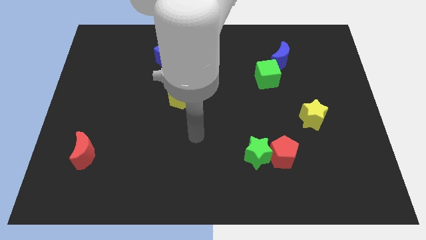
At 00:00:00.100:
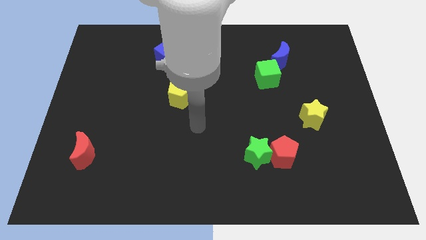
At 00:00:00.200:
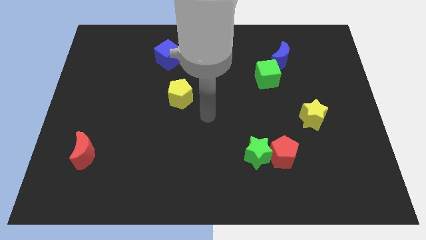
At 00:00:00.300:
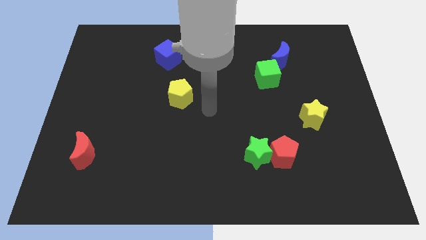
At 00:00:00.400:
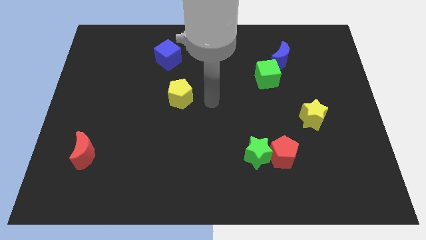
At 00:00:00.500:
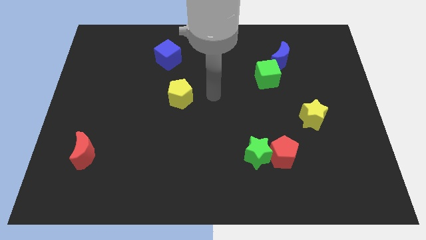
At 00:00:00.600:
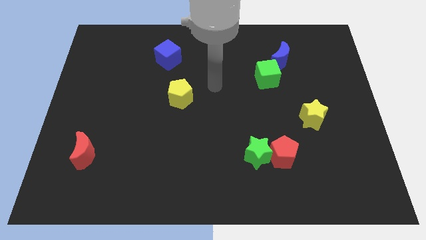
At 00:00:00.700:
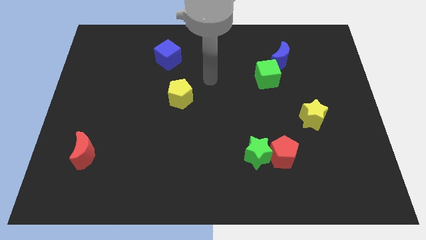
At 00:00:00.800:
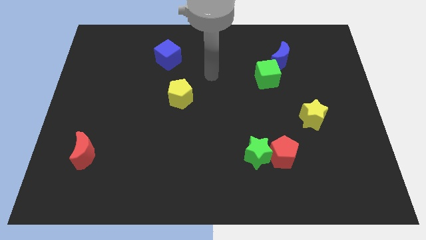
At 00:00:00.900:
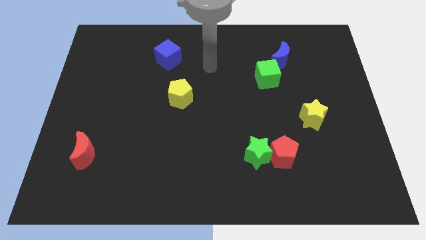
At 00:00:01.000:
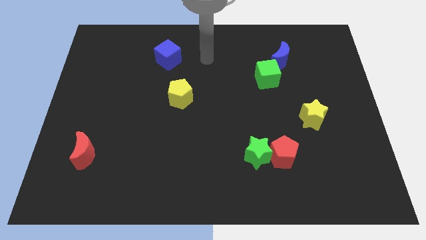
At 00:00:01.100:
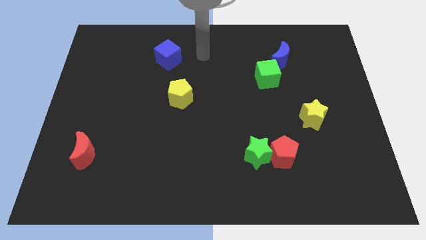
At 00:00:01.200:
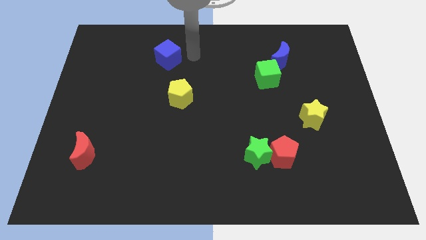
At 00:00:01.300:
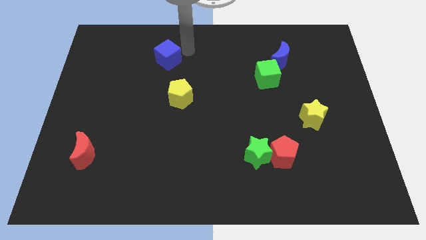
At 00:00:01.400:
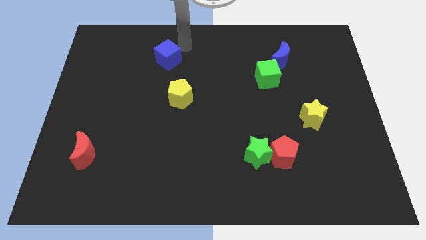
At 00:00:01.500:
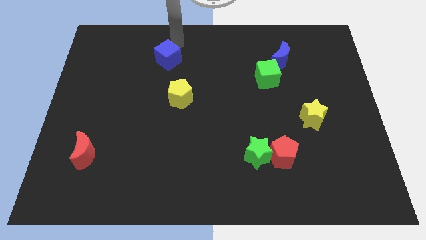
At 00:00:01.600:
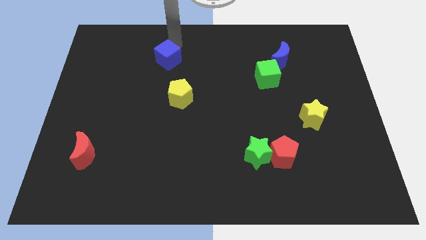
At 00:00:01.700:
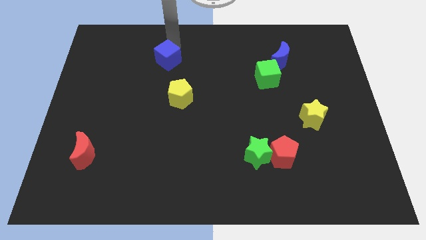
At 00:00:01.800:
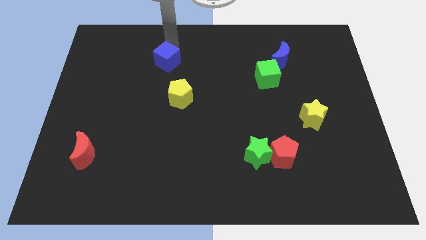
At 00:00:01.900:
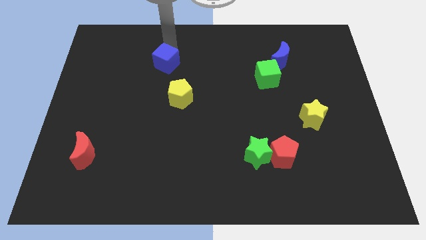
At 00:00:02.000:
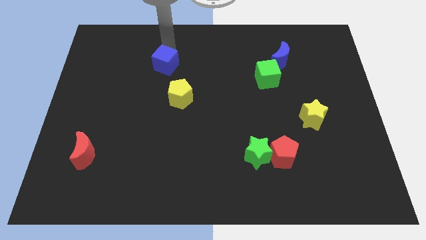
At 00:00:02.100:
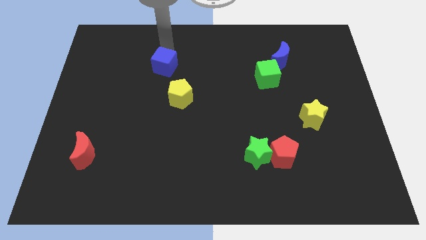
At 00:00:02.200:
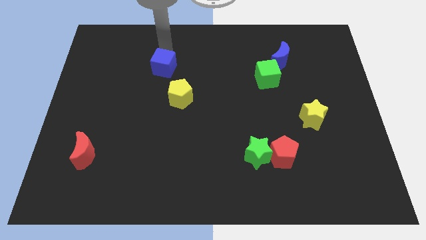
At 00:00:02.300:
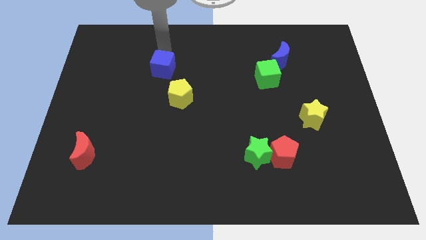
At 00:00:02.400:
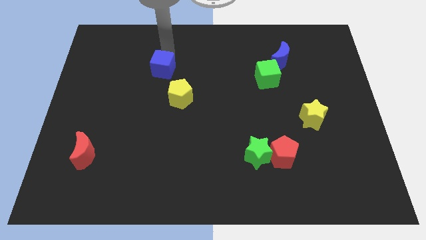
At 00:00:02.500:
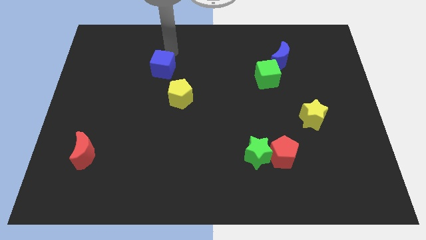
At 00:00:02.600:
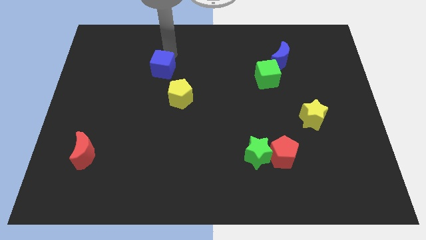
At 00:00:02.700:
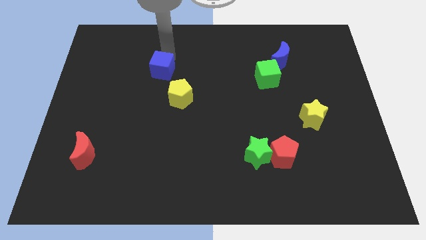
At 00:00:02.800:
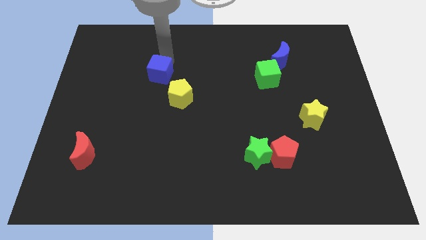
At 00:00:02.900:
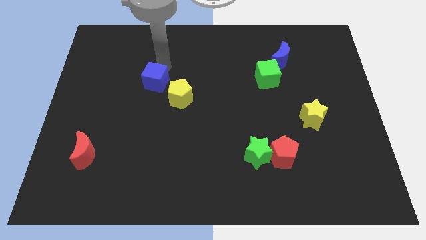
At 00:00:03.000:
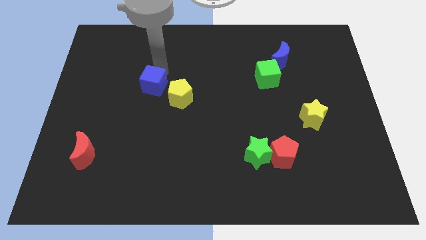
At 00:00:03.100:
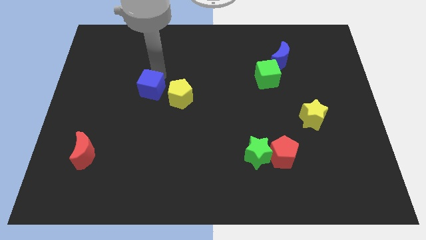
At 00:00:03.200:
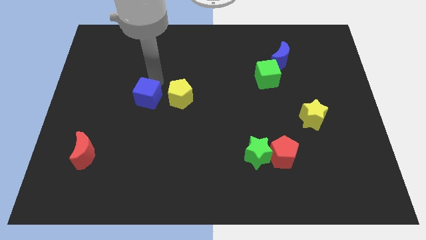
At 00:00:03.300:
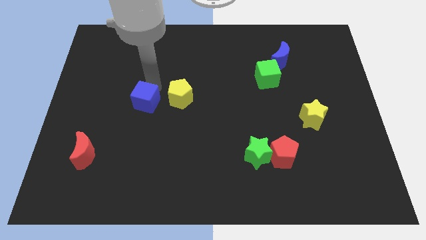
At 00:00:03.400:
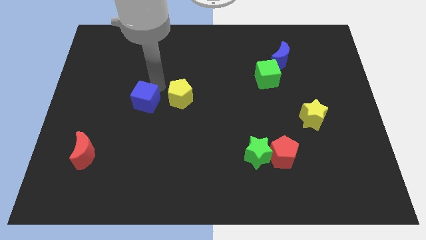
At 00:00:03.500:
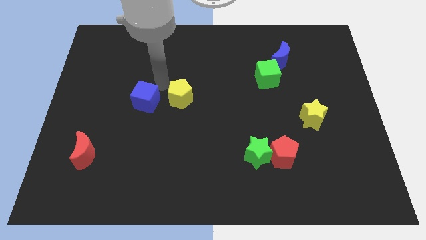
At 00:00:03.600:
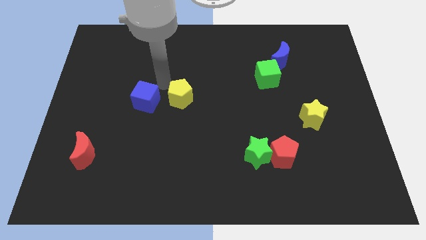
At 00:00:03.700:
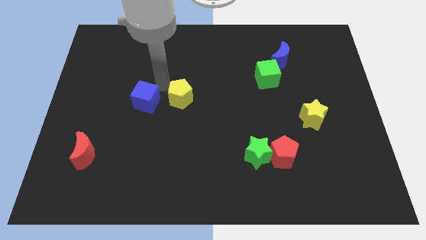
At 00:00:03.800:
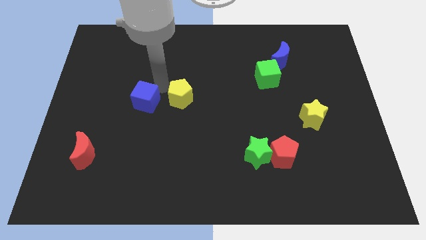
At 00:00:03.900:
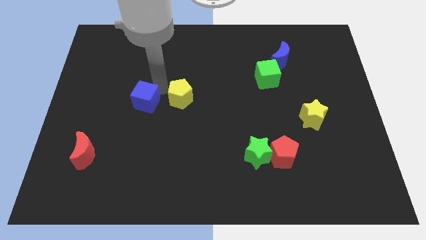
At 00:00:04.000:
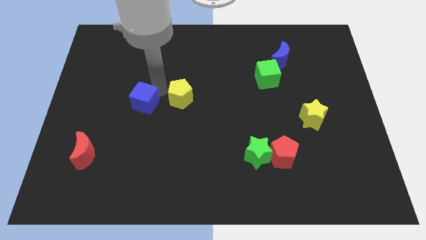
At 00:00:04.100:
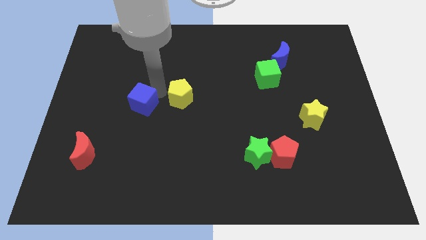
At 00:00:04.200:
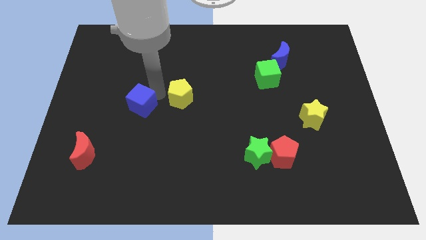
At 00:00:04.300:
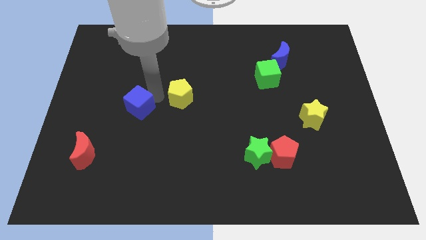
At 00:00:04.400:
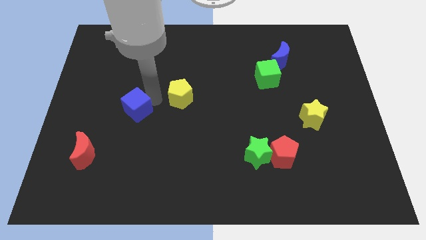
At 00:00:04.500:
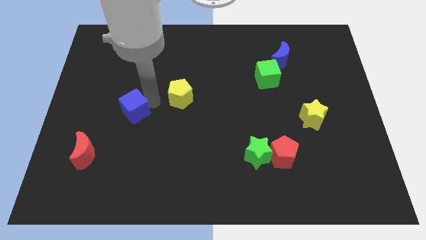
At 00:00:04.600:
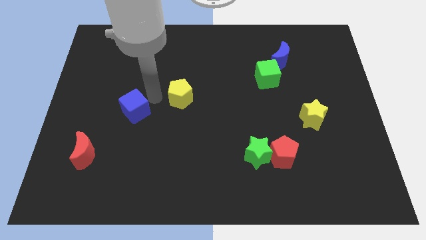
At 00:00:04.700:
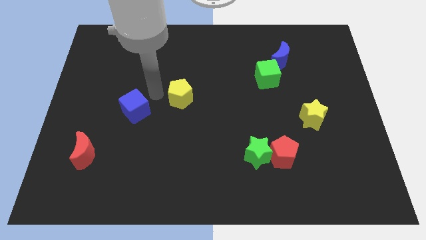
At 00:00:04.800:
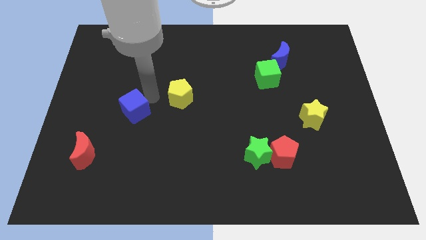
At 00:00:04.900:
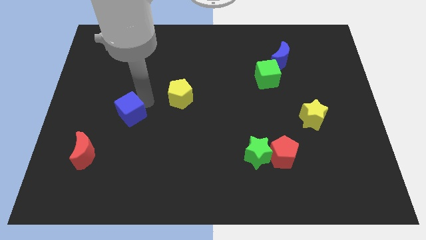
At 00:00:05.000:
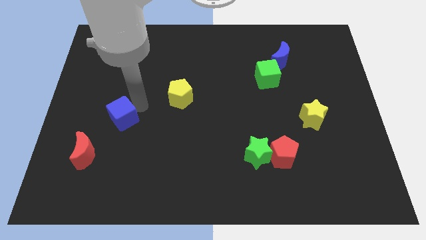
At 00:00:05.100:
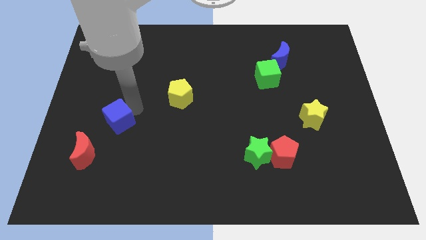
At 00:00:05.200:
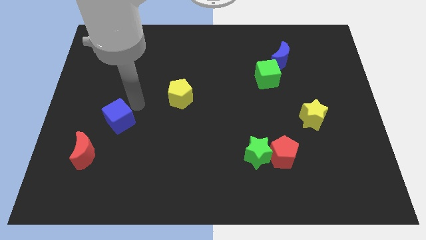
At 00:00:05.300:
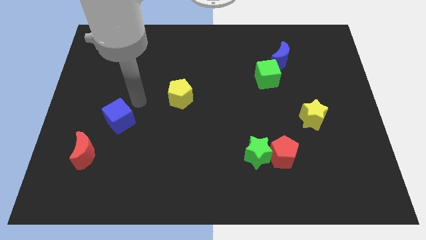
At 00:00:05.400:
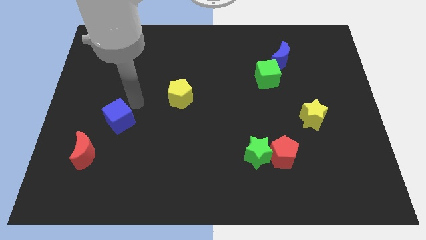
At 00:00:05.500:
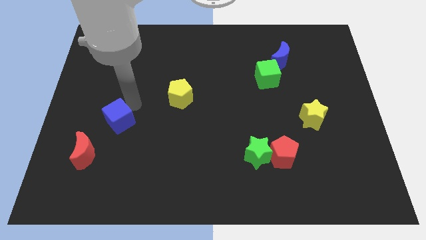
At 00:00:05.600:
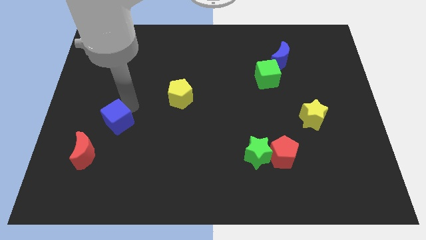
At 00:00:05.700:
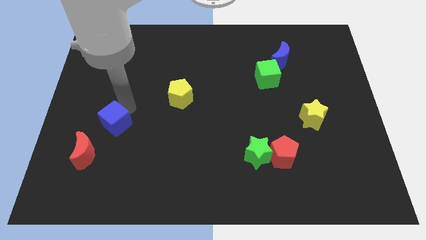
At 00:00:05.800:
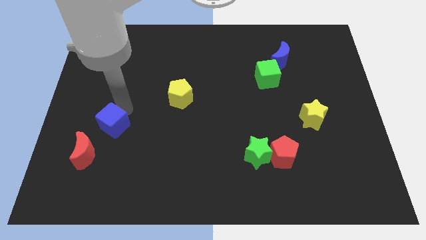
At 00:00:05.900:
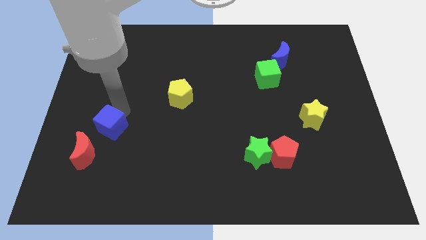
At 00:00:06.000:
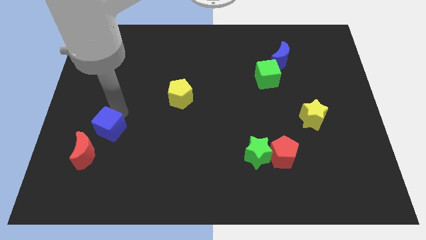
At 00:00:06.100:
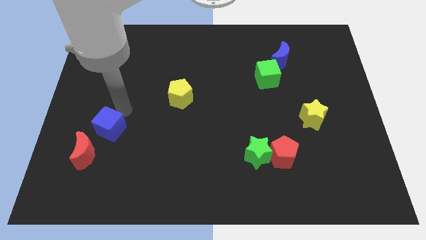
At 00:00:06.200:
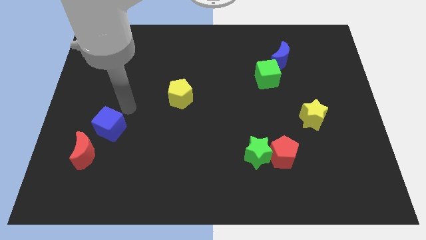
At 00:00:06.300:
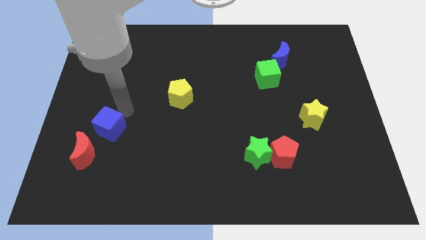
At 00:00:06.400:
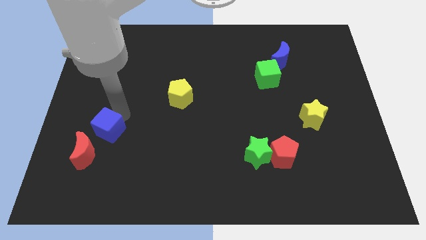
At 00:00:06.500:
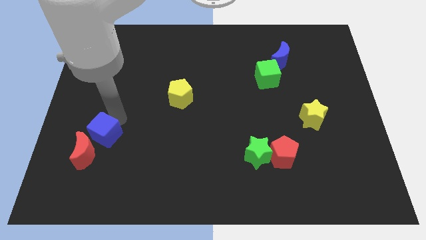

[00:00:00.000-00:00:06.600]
push the blue cube next to the red moon

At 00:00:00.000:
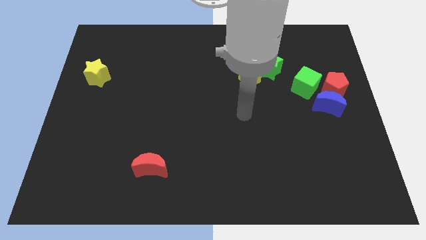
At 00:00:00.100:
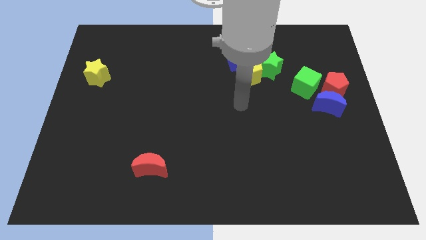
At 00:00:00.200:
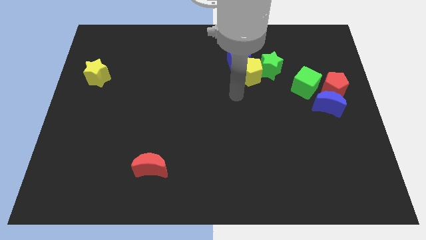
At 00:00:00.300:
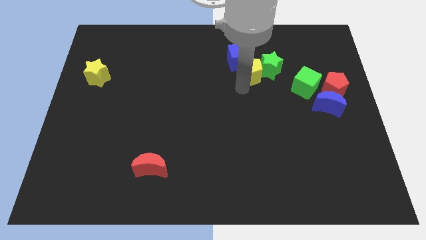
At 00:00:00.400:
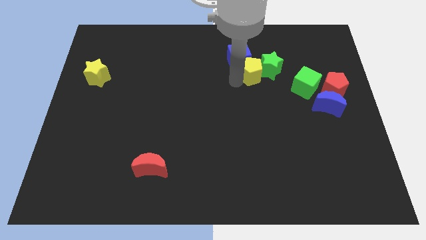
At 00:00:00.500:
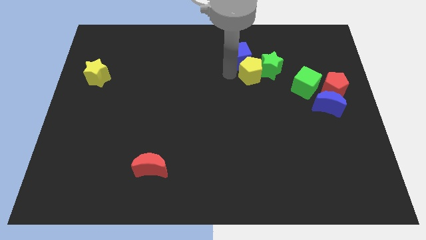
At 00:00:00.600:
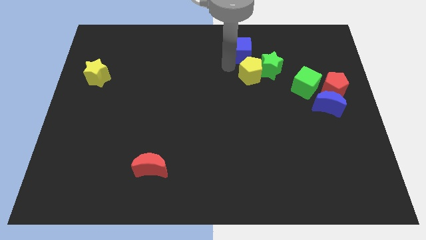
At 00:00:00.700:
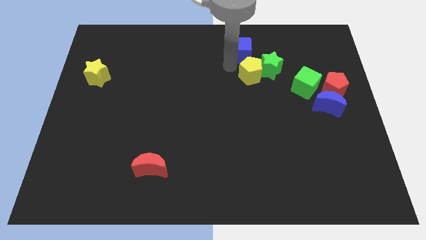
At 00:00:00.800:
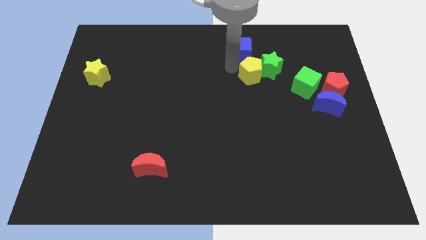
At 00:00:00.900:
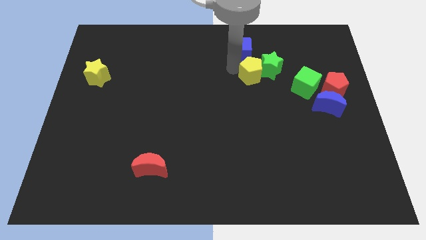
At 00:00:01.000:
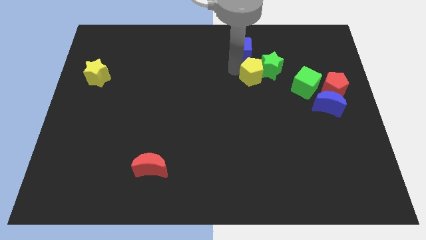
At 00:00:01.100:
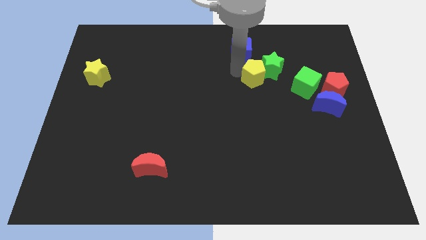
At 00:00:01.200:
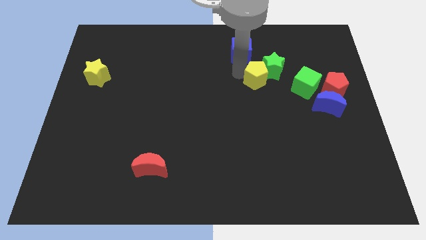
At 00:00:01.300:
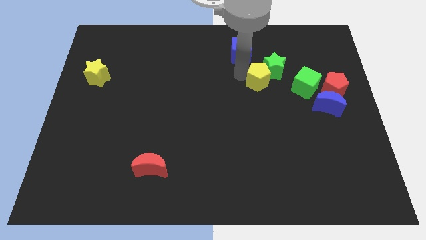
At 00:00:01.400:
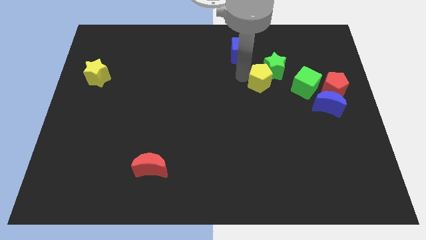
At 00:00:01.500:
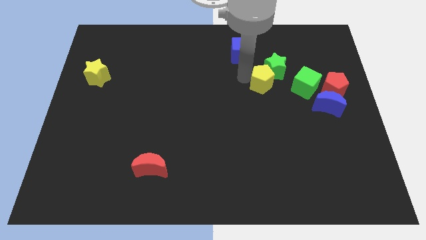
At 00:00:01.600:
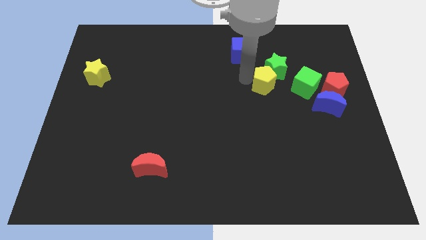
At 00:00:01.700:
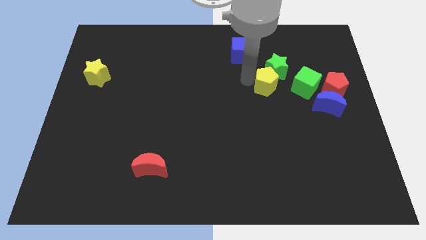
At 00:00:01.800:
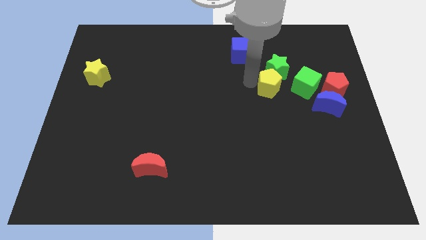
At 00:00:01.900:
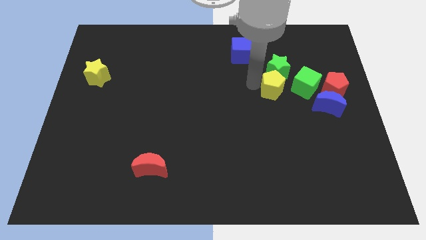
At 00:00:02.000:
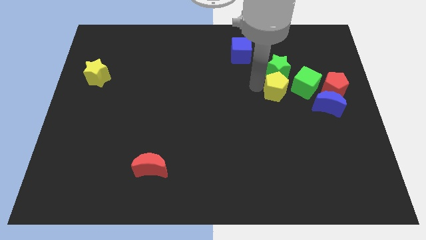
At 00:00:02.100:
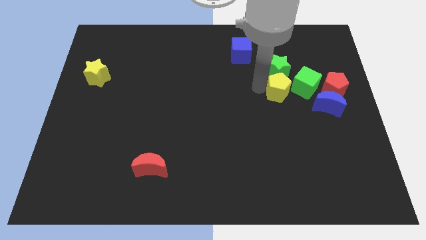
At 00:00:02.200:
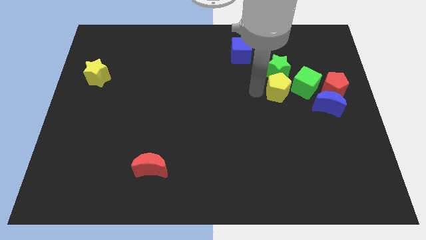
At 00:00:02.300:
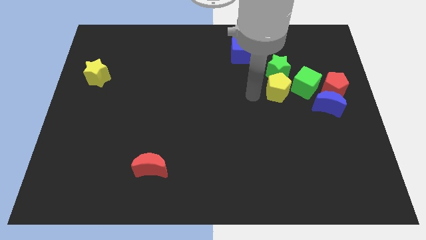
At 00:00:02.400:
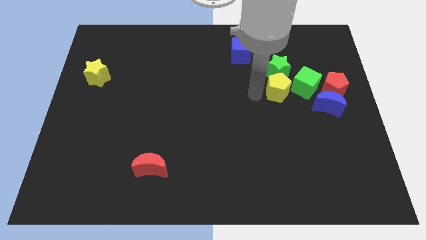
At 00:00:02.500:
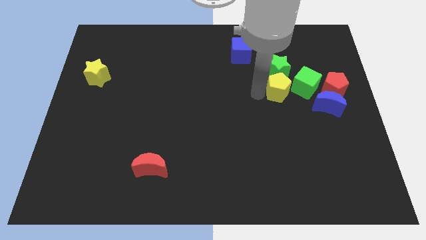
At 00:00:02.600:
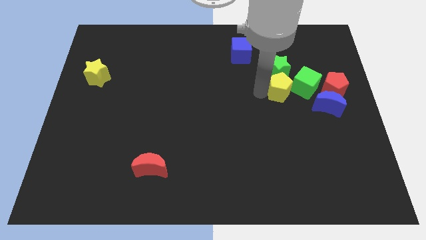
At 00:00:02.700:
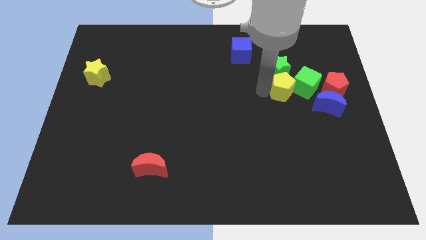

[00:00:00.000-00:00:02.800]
push the yellow pentagon towards the green cube
